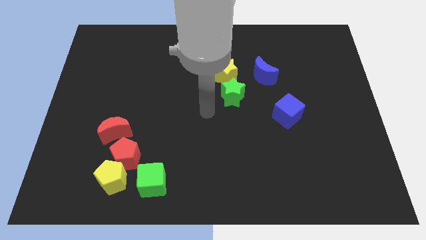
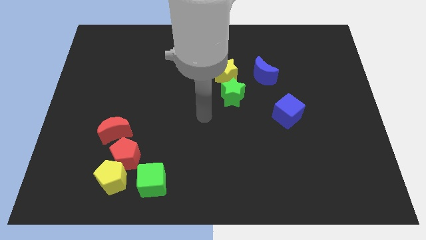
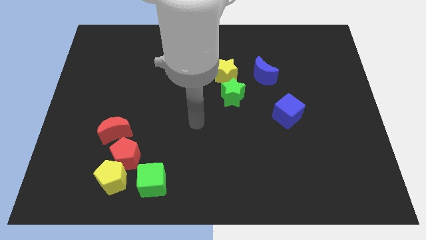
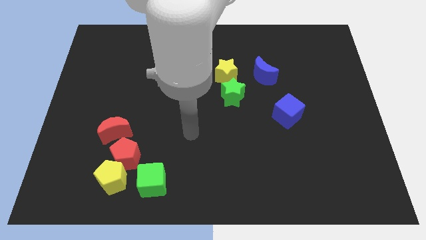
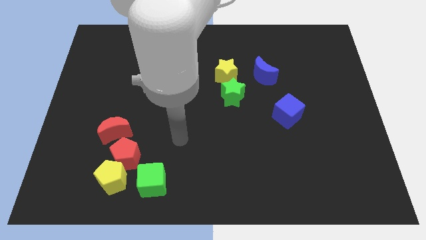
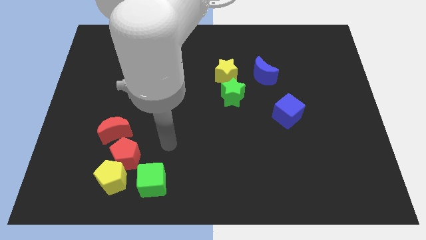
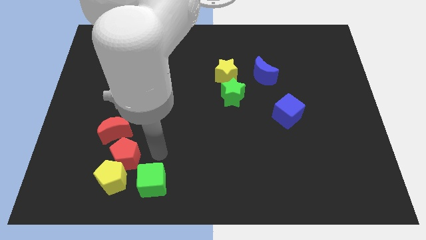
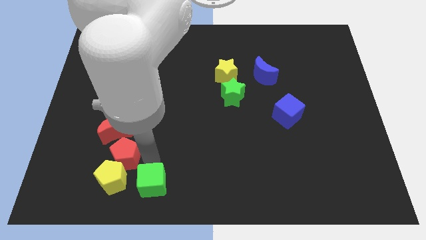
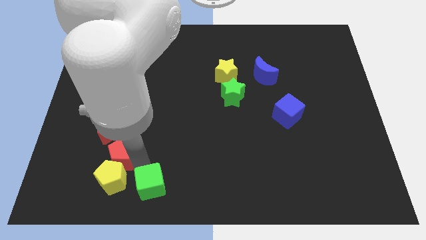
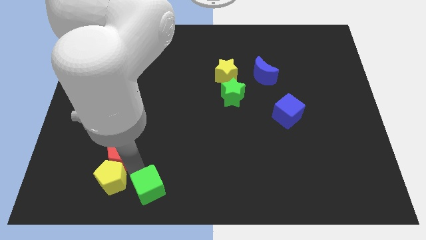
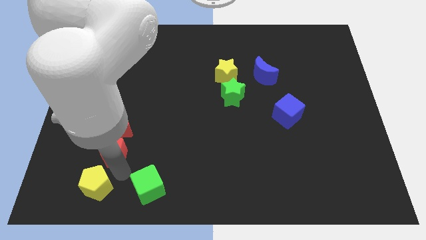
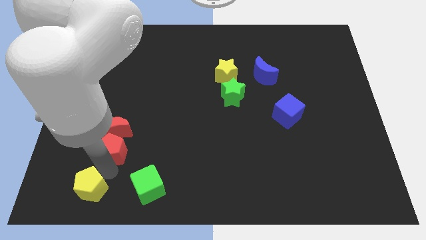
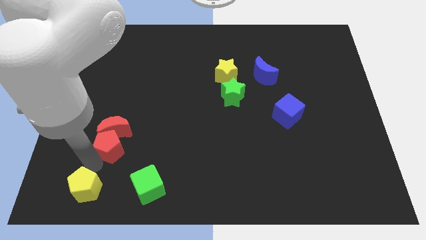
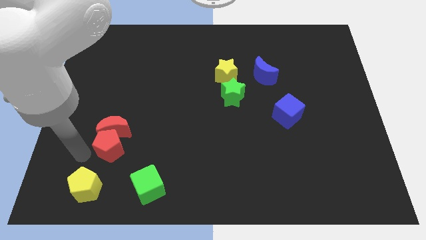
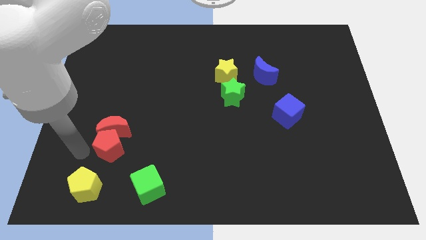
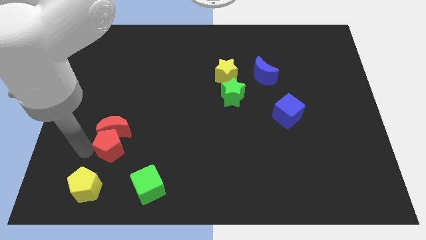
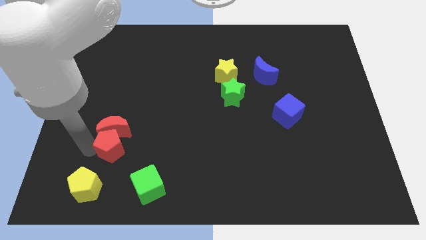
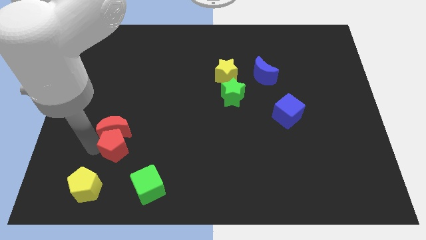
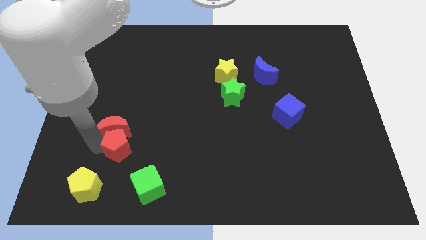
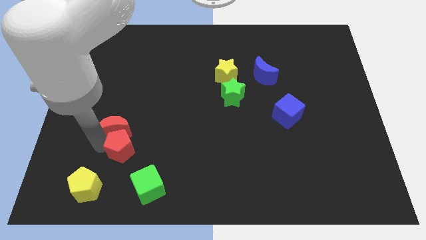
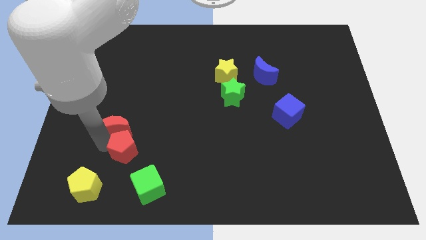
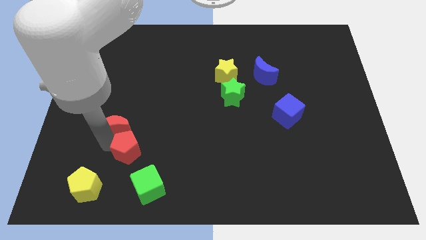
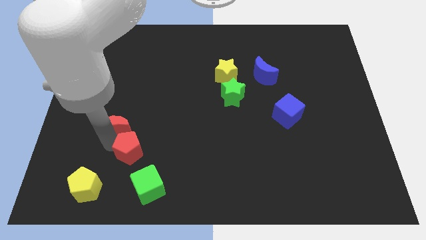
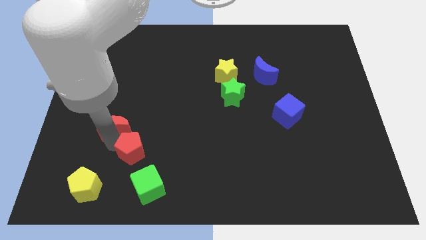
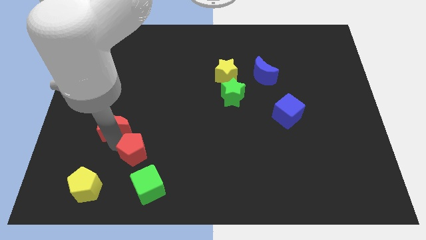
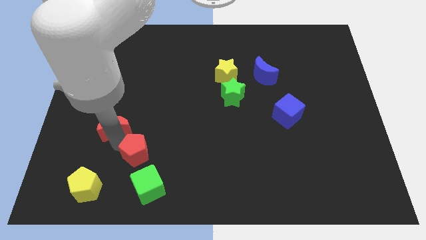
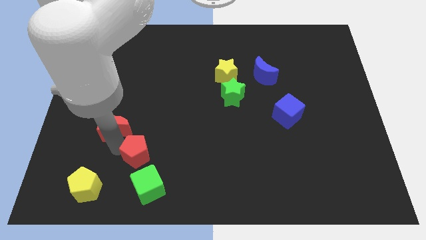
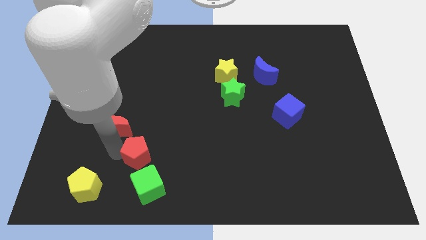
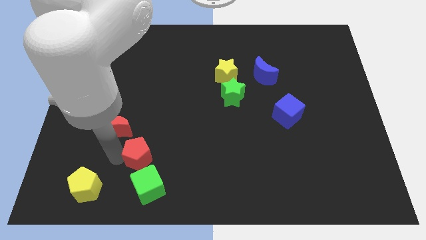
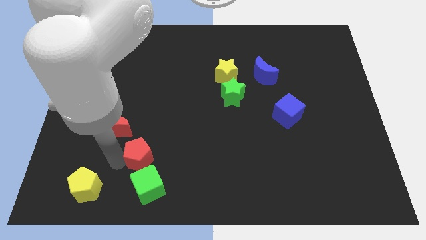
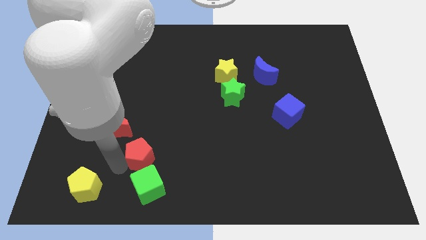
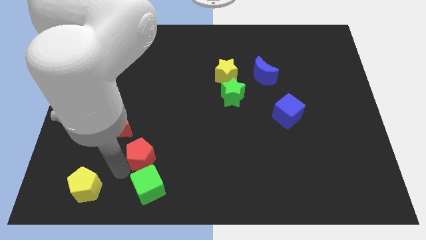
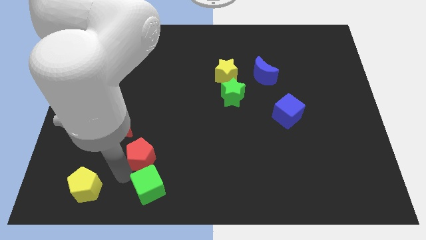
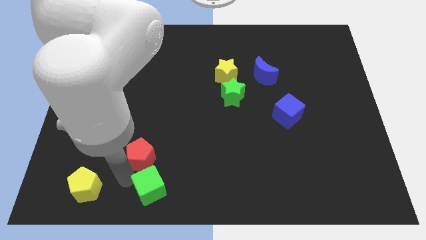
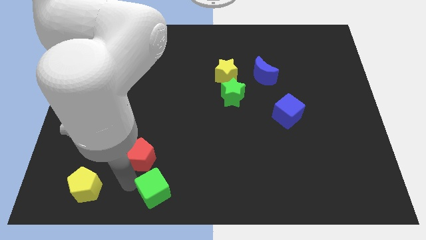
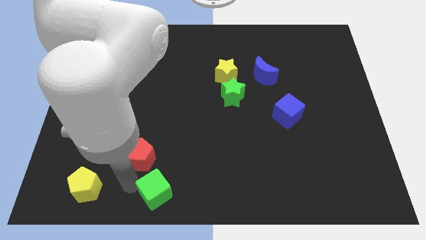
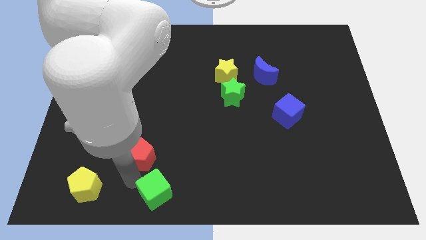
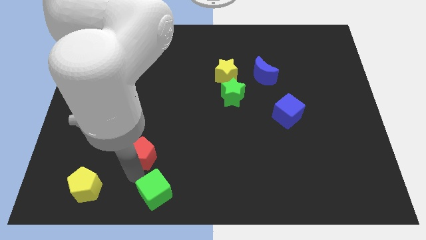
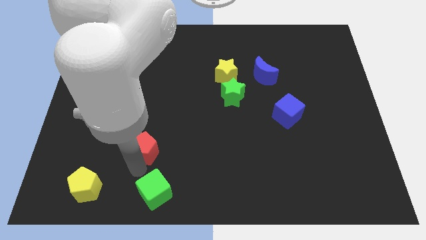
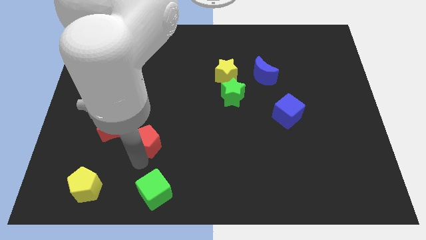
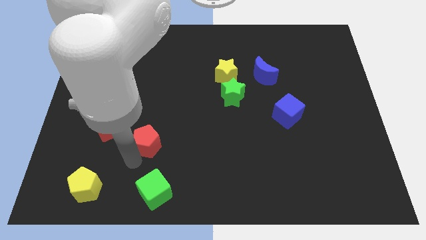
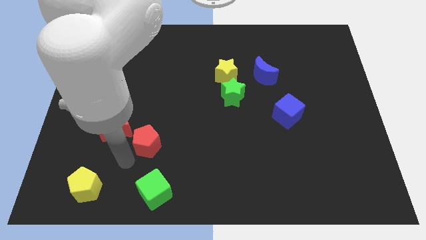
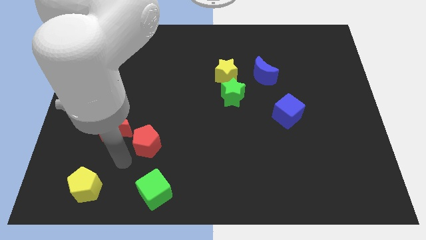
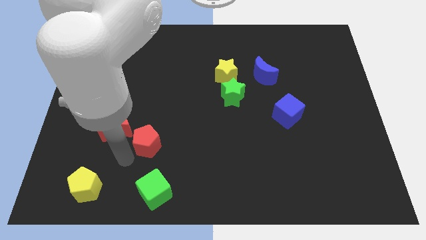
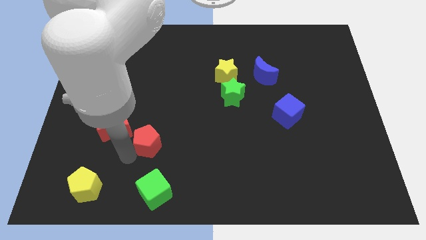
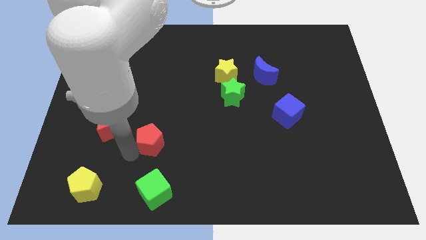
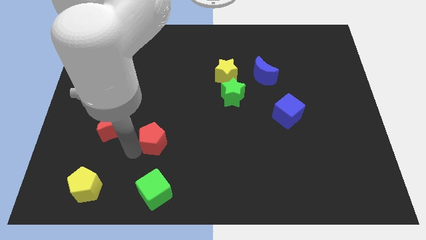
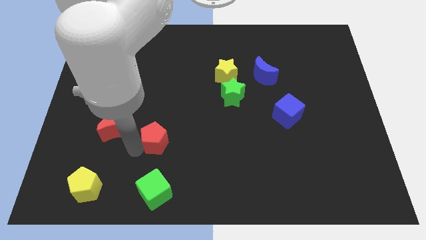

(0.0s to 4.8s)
slide the red pentagon upwards and right diagonally a little

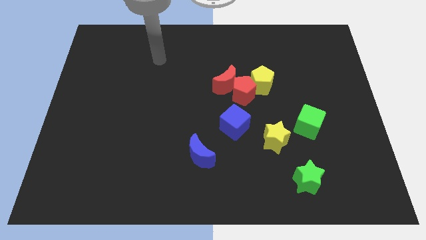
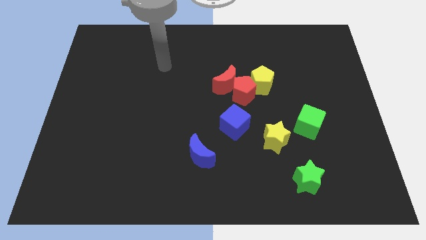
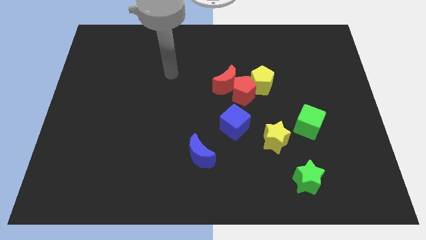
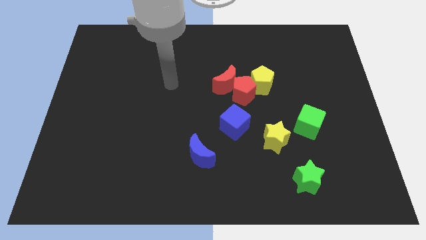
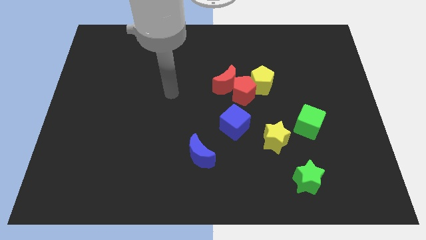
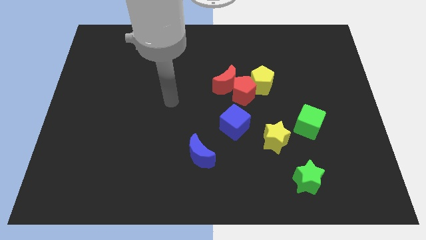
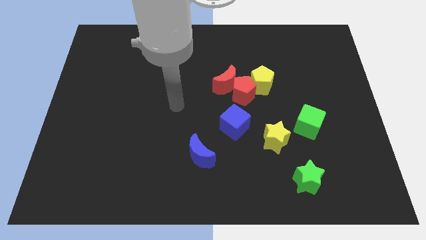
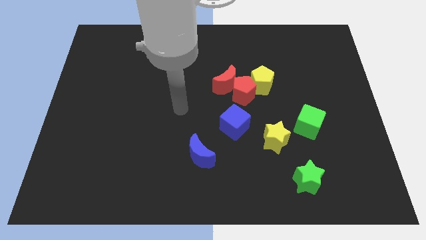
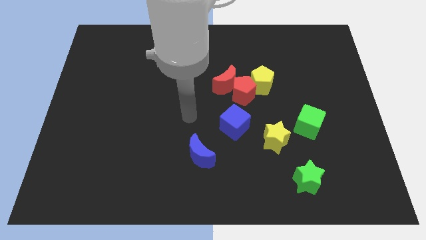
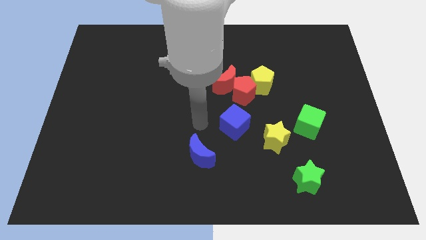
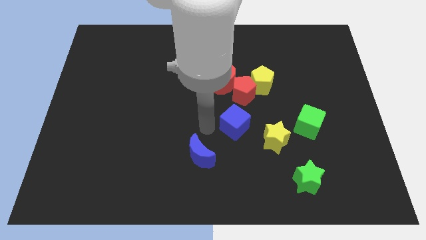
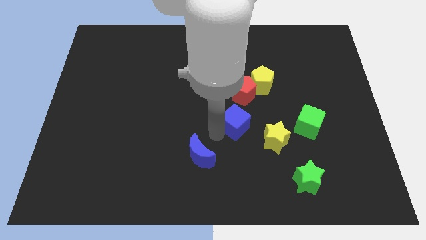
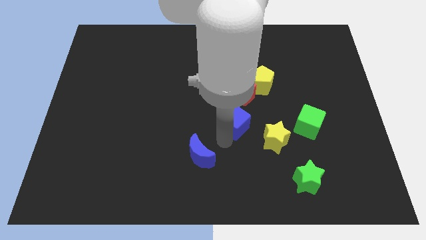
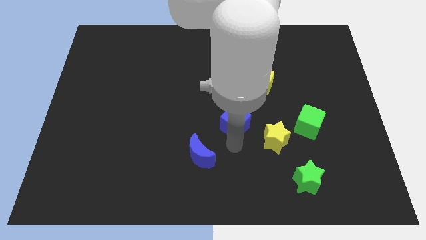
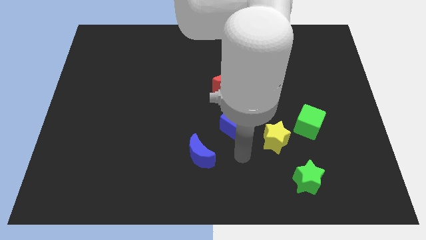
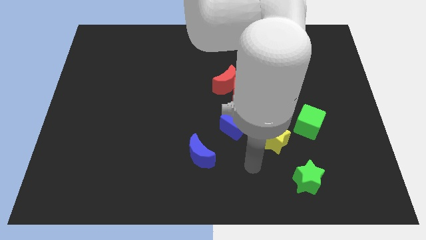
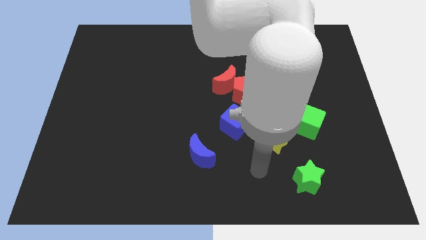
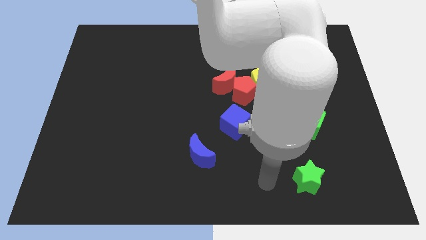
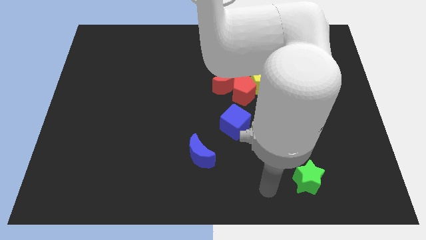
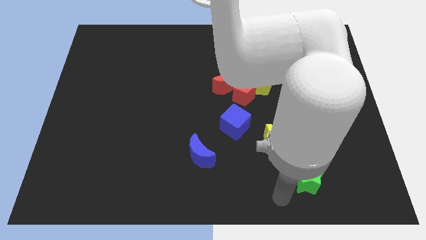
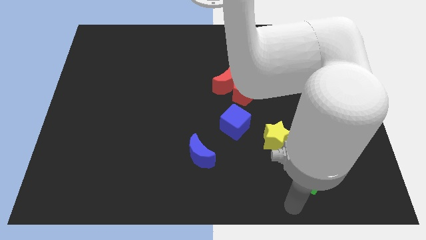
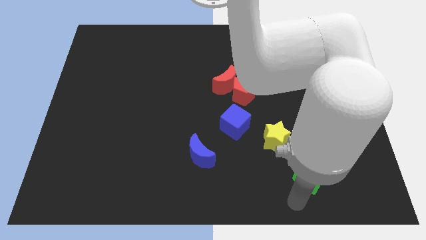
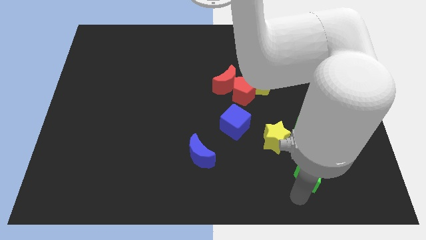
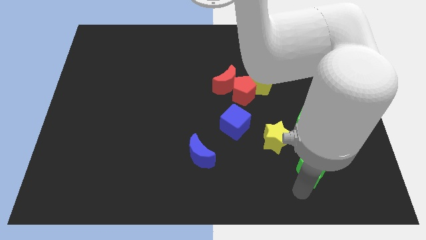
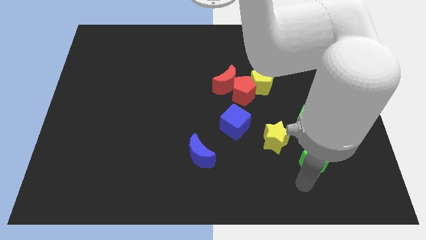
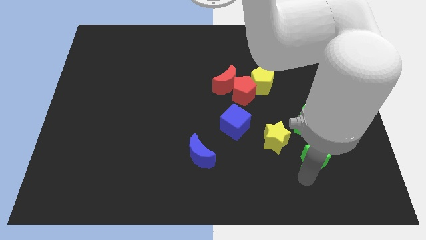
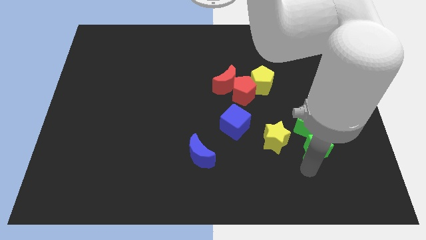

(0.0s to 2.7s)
slightly move the green star upwards

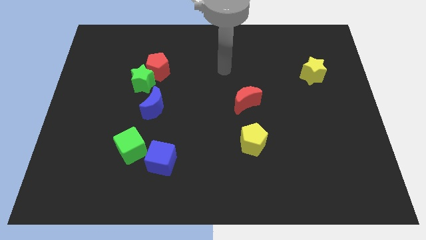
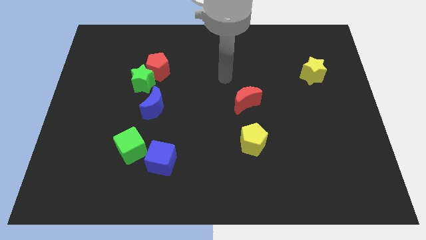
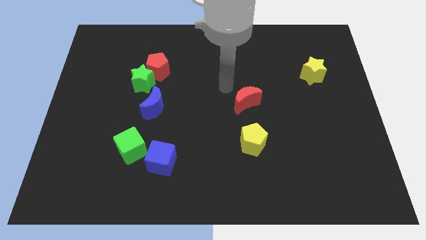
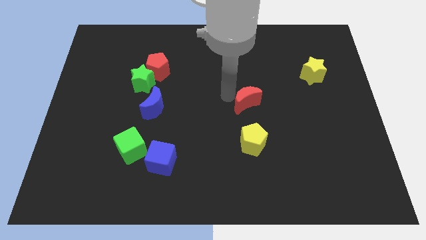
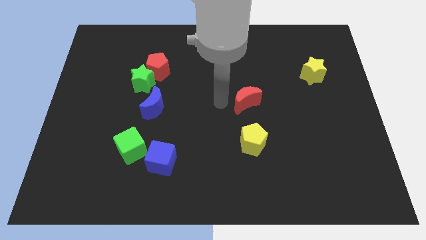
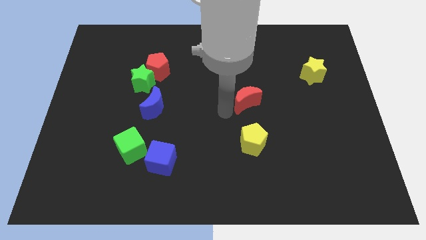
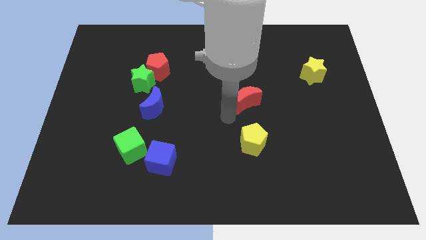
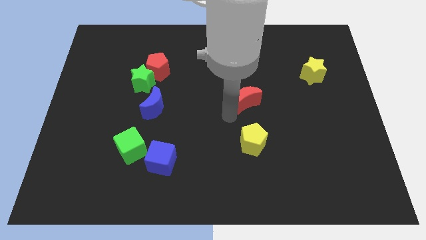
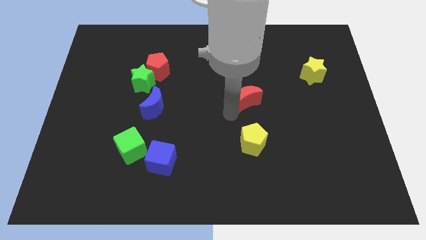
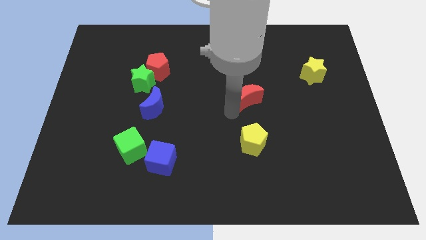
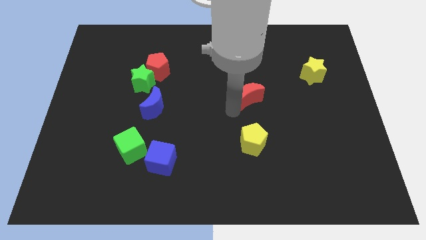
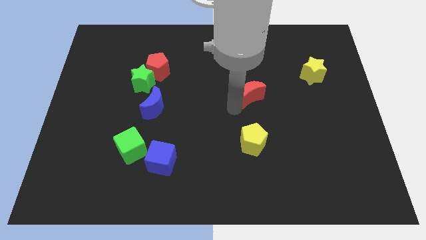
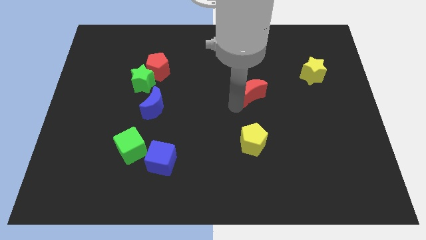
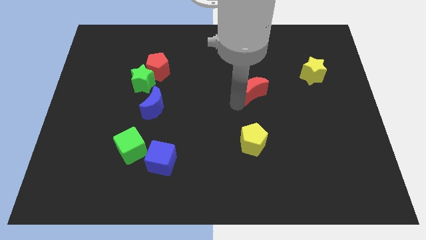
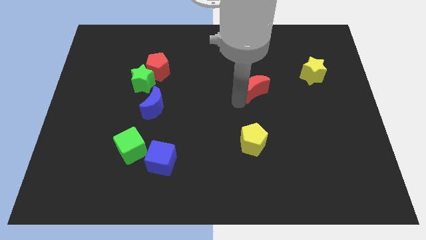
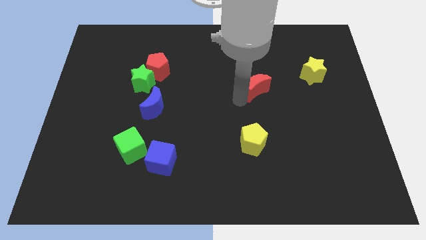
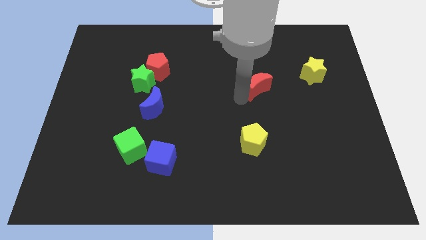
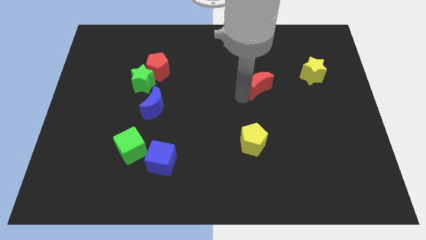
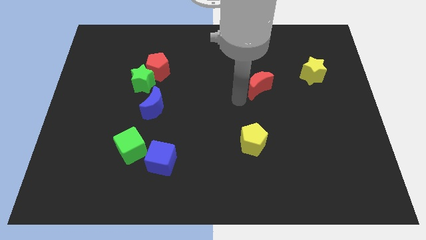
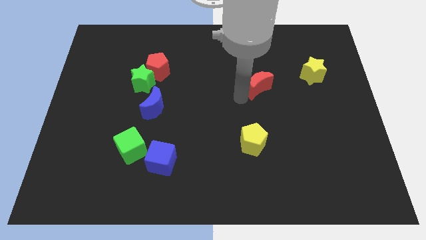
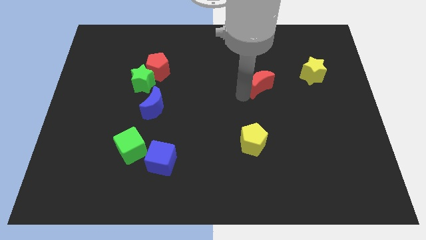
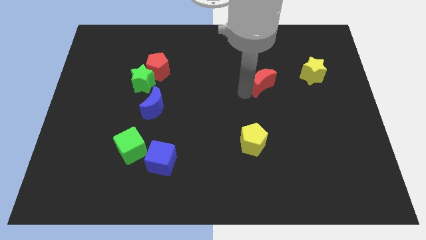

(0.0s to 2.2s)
slightly push the red moon up and right
